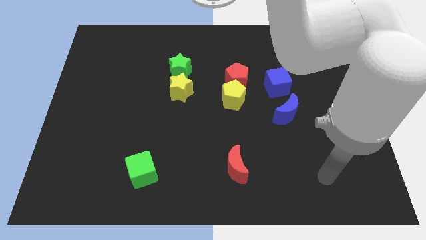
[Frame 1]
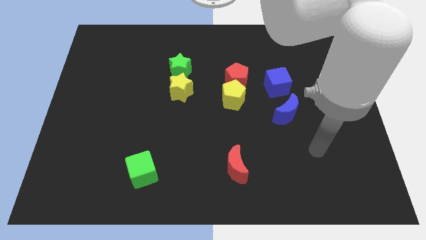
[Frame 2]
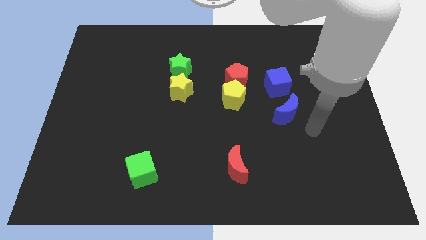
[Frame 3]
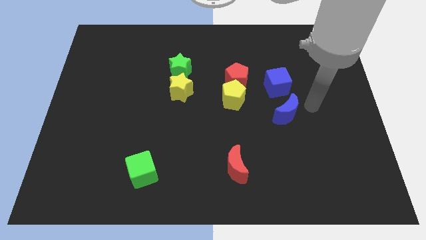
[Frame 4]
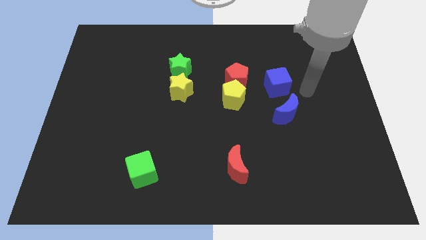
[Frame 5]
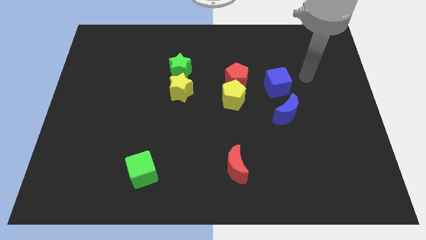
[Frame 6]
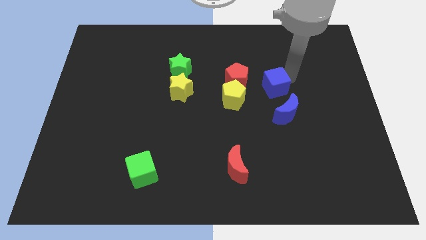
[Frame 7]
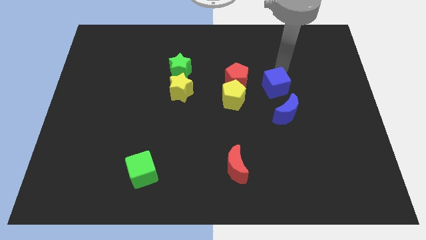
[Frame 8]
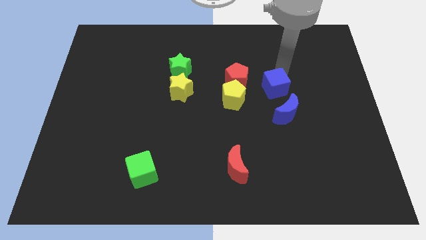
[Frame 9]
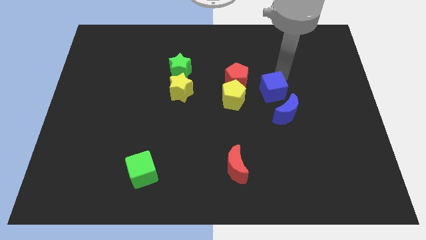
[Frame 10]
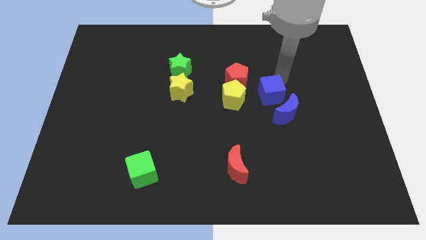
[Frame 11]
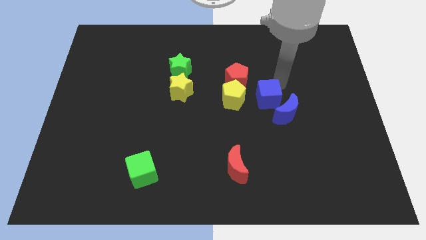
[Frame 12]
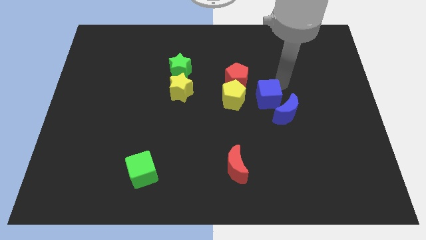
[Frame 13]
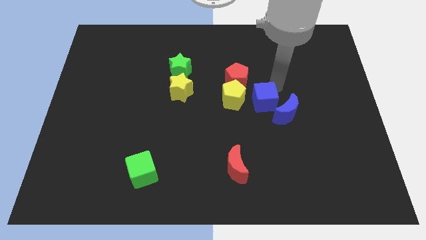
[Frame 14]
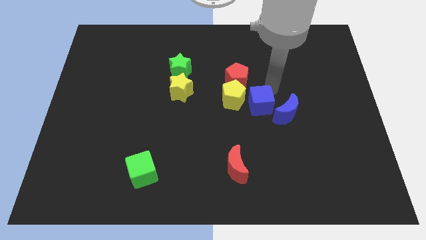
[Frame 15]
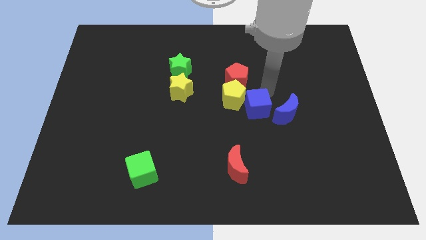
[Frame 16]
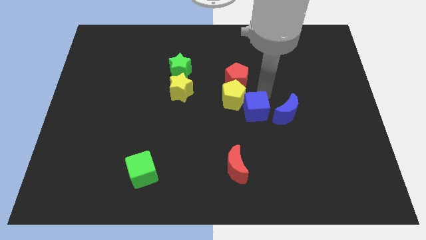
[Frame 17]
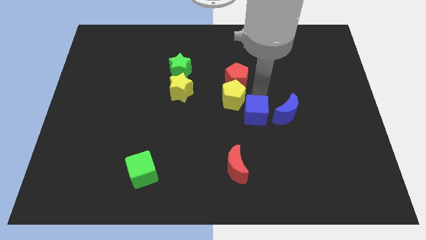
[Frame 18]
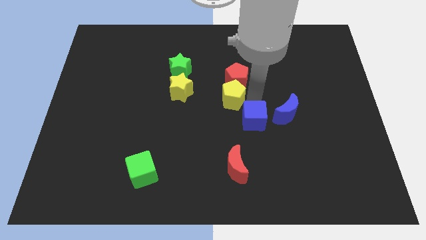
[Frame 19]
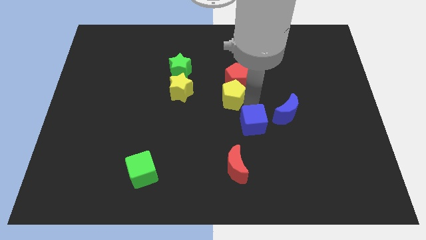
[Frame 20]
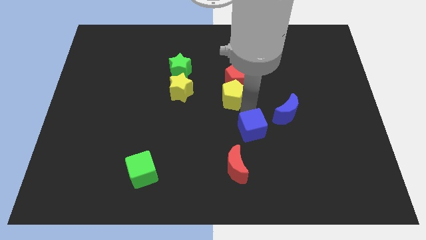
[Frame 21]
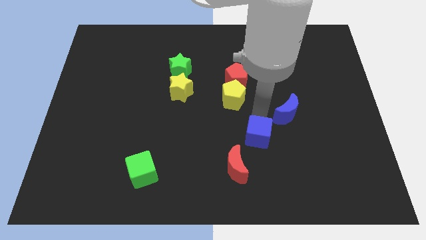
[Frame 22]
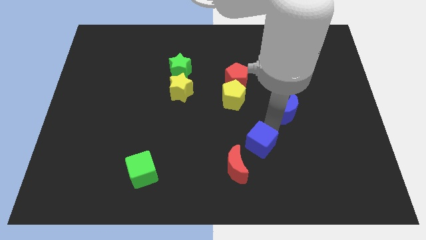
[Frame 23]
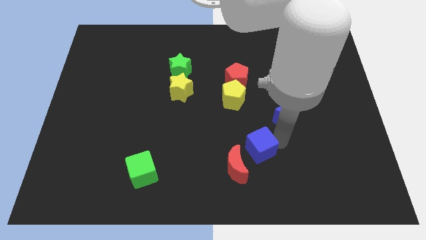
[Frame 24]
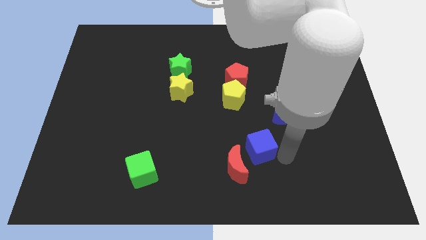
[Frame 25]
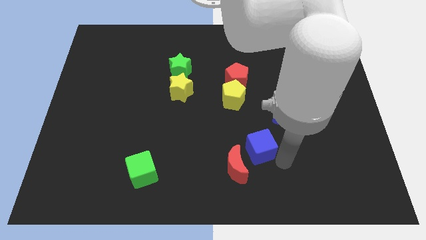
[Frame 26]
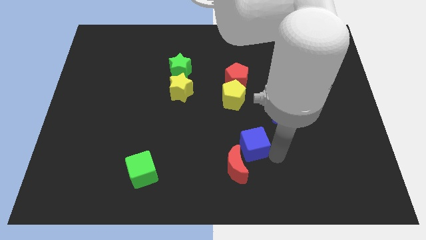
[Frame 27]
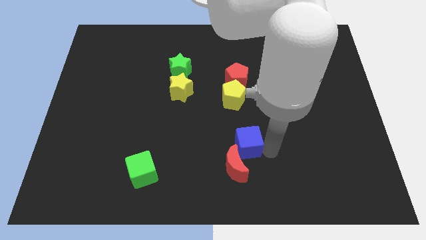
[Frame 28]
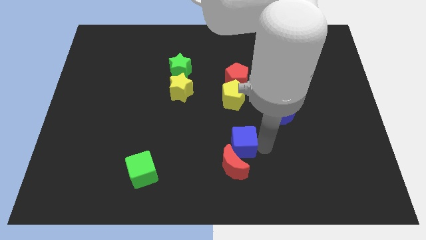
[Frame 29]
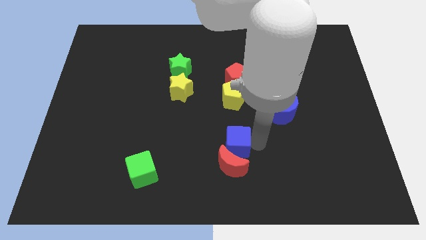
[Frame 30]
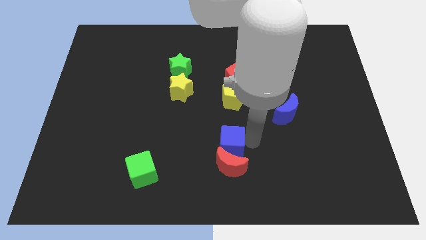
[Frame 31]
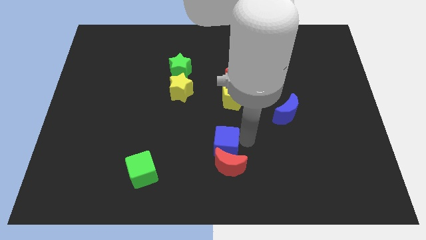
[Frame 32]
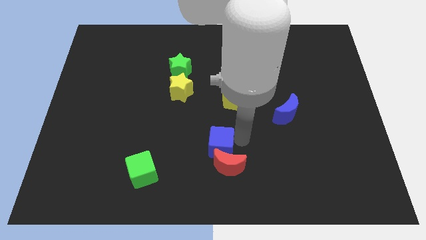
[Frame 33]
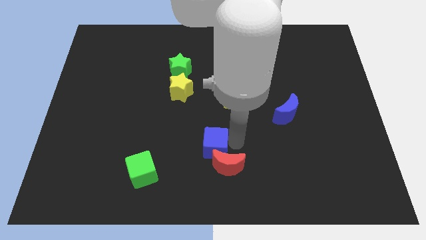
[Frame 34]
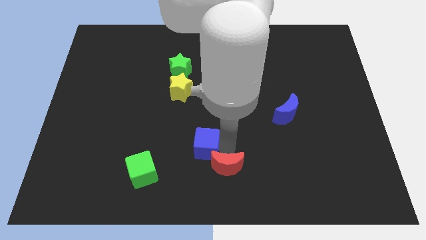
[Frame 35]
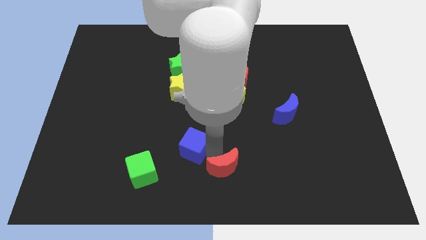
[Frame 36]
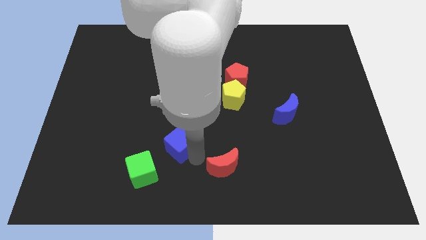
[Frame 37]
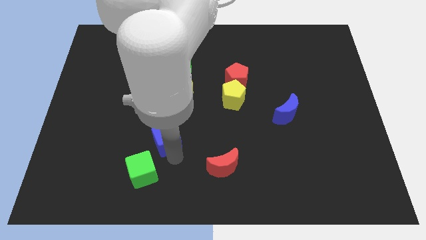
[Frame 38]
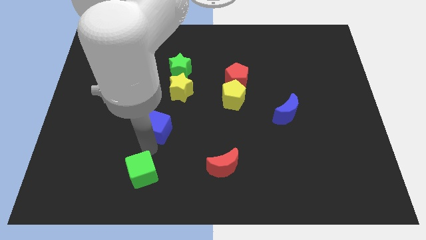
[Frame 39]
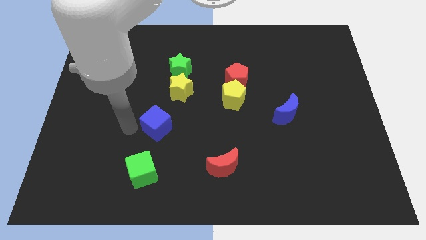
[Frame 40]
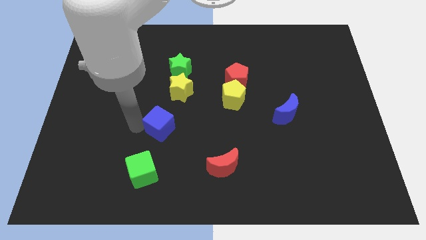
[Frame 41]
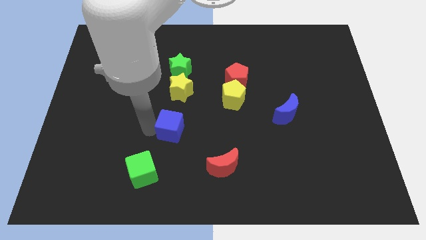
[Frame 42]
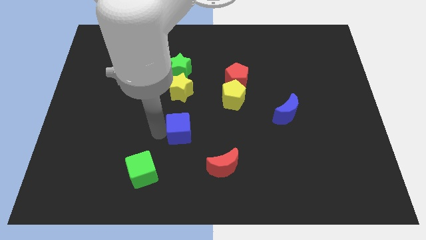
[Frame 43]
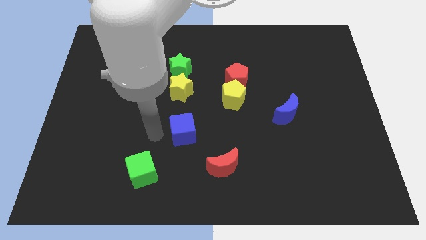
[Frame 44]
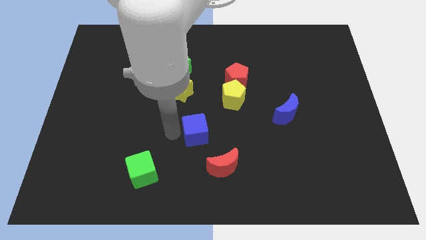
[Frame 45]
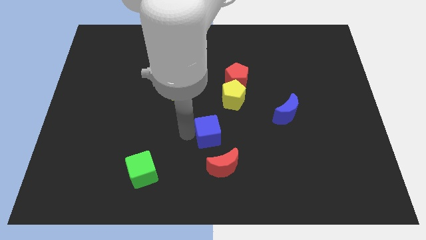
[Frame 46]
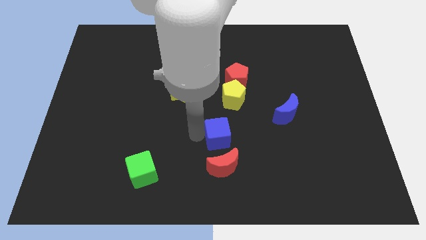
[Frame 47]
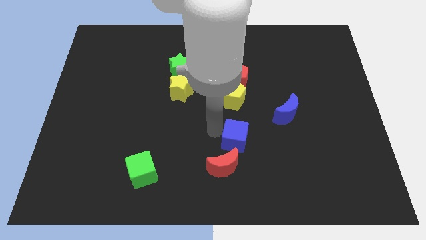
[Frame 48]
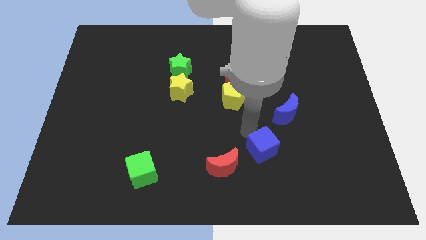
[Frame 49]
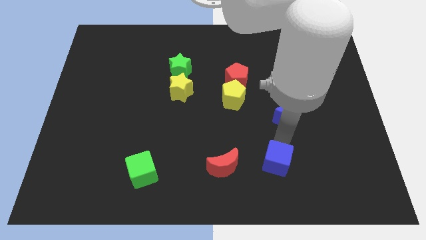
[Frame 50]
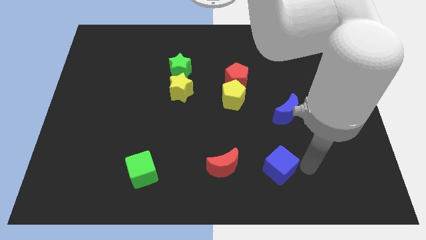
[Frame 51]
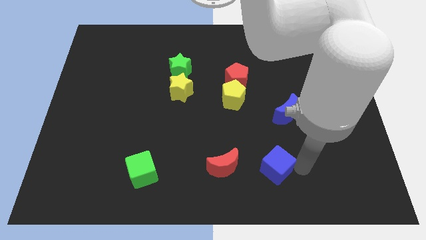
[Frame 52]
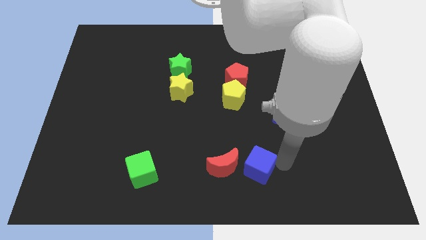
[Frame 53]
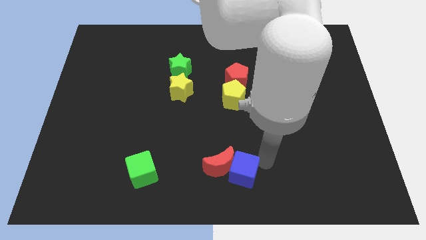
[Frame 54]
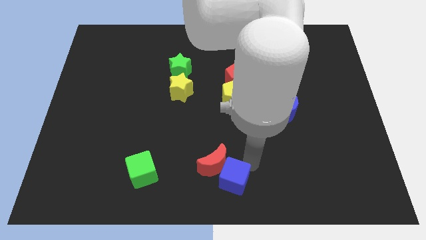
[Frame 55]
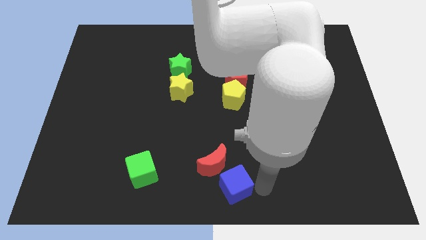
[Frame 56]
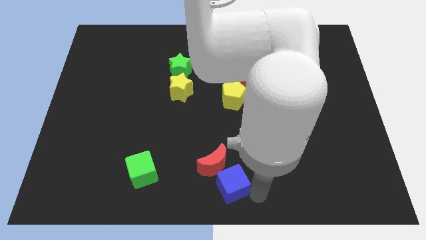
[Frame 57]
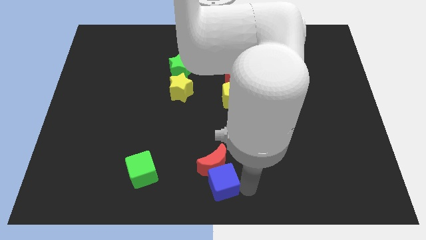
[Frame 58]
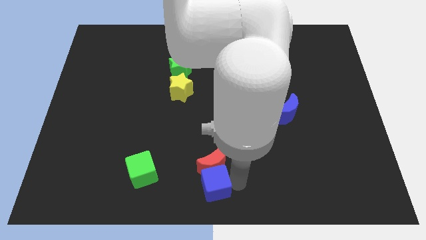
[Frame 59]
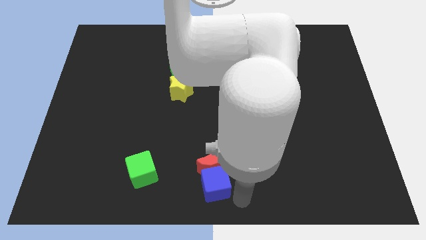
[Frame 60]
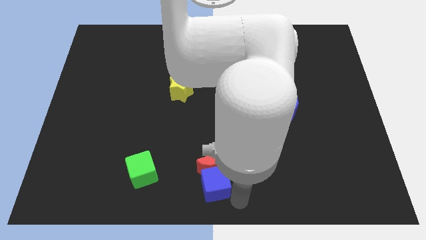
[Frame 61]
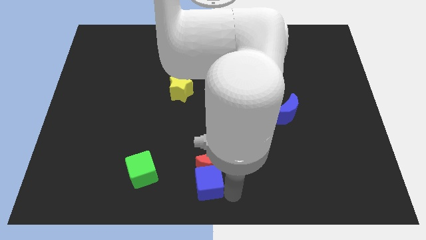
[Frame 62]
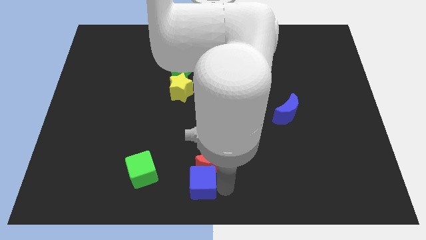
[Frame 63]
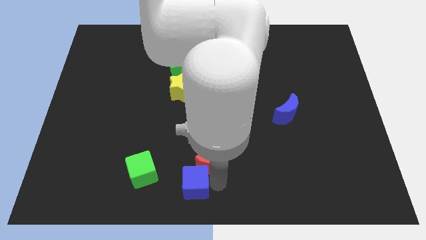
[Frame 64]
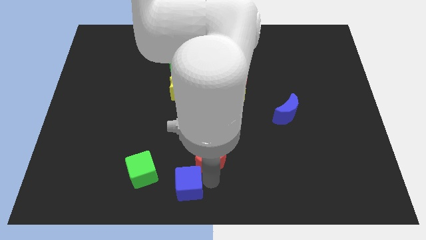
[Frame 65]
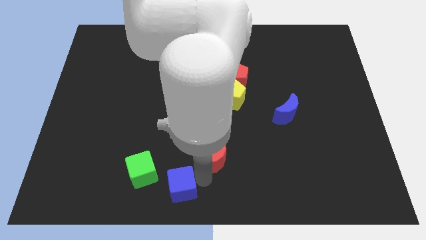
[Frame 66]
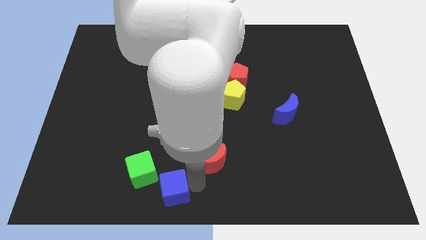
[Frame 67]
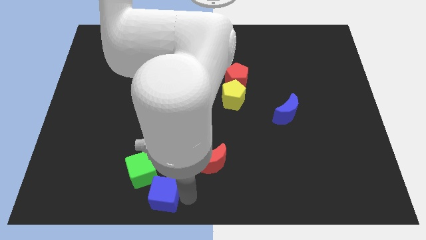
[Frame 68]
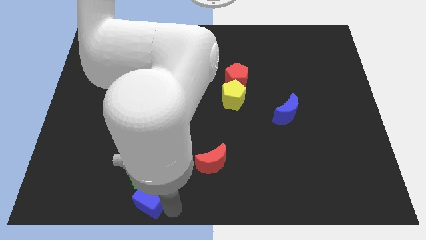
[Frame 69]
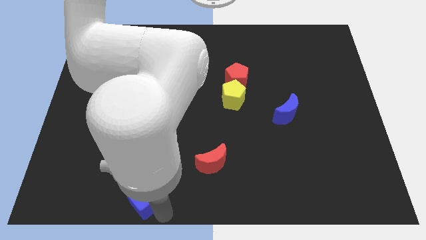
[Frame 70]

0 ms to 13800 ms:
move the blue cube close to the green cube

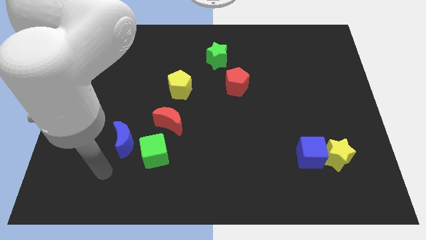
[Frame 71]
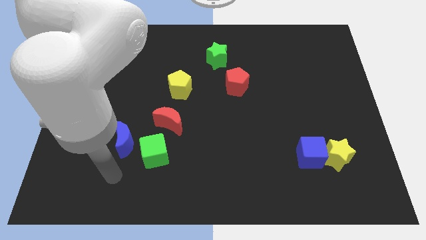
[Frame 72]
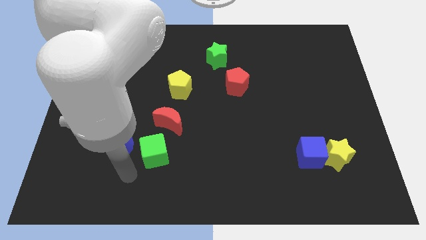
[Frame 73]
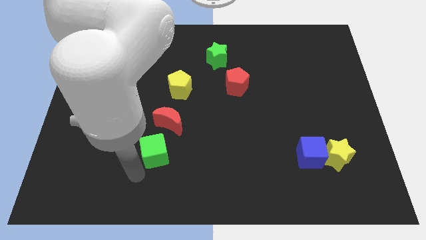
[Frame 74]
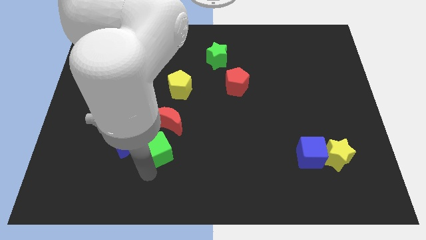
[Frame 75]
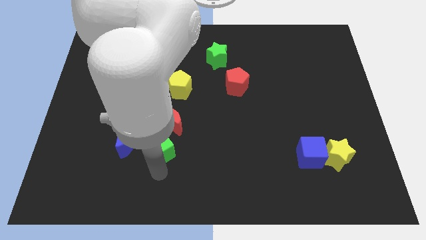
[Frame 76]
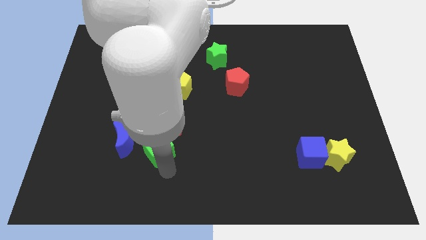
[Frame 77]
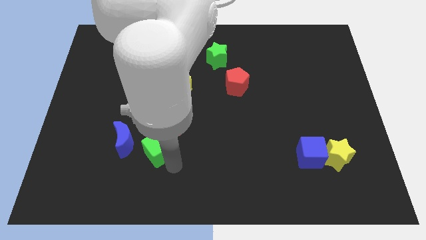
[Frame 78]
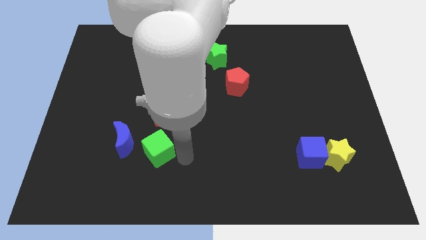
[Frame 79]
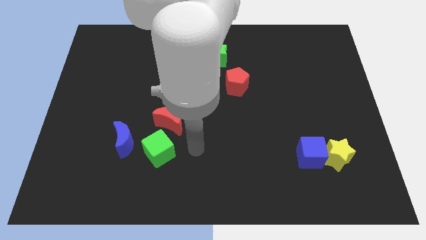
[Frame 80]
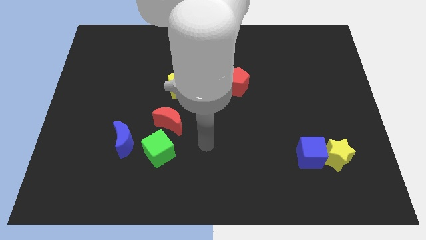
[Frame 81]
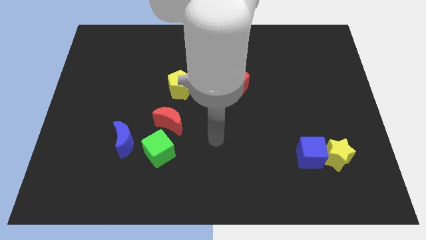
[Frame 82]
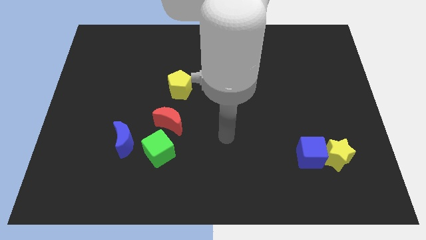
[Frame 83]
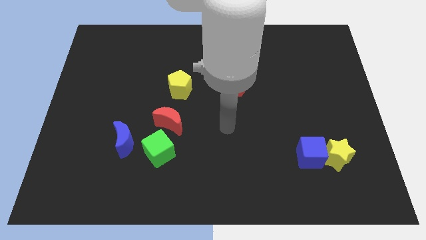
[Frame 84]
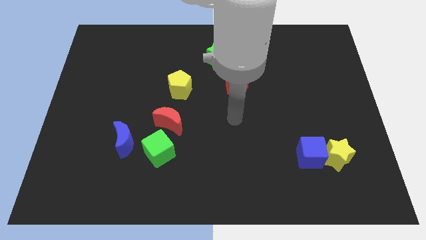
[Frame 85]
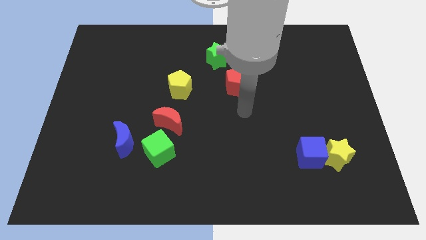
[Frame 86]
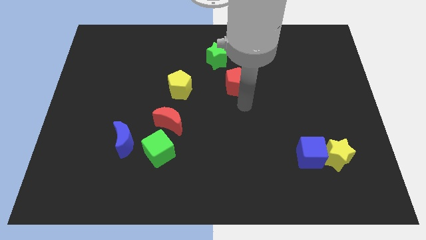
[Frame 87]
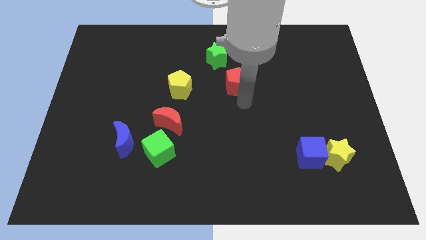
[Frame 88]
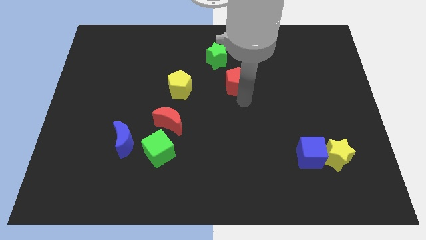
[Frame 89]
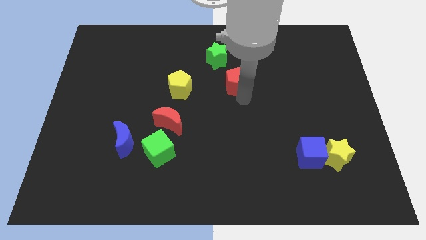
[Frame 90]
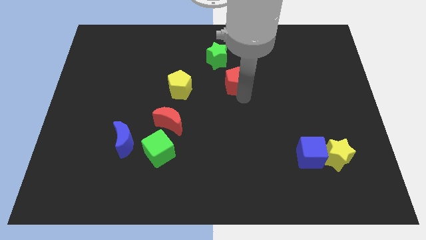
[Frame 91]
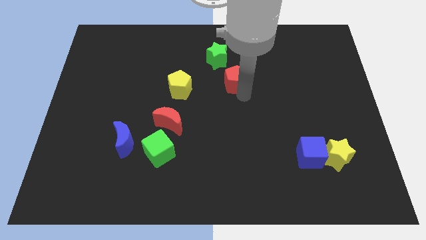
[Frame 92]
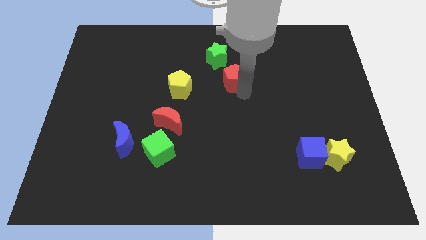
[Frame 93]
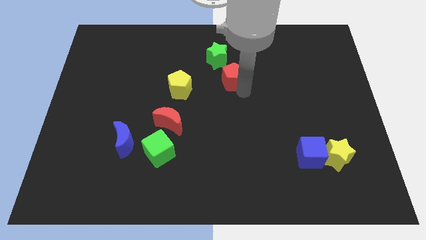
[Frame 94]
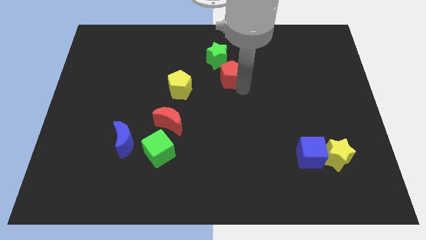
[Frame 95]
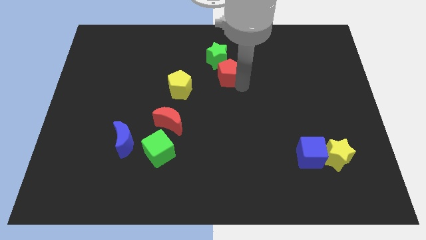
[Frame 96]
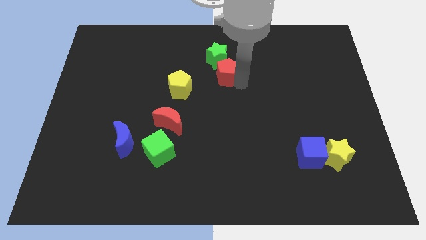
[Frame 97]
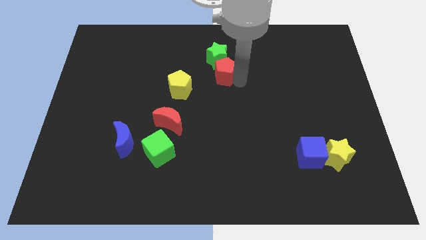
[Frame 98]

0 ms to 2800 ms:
push the red pentagon towards the green star
